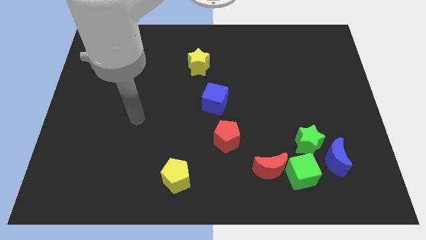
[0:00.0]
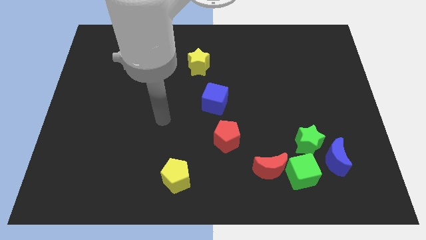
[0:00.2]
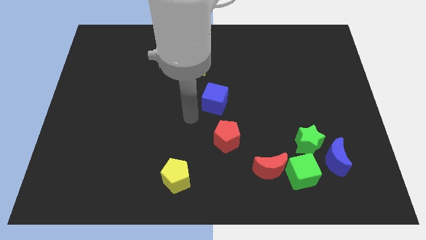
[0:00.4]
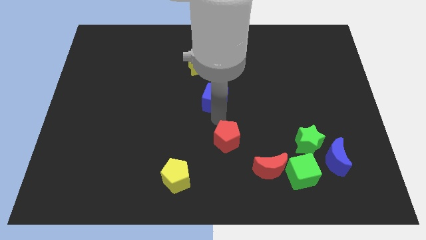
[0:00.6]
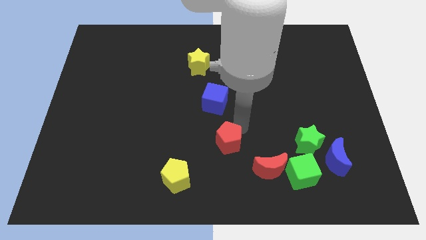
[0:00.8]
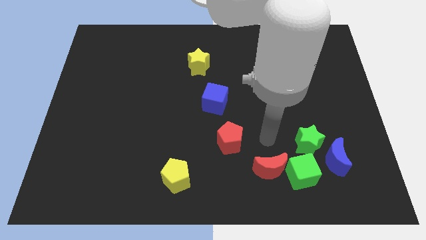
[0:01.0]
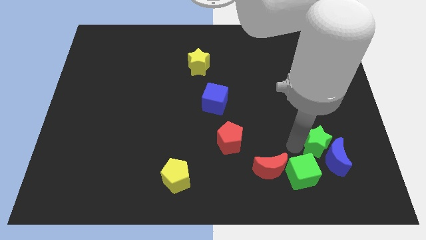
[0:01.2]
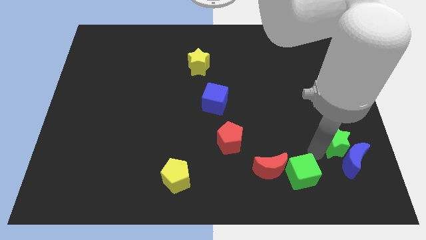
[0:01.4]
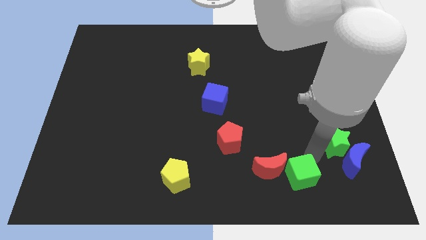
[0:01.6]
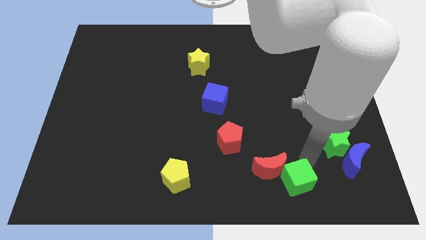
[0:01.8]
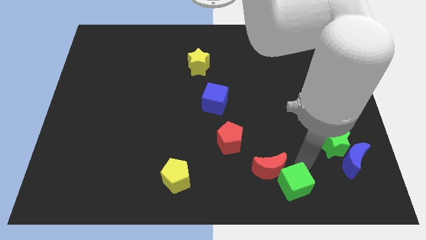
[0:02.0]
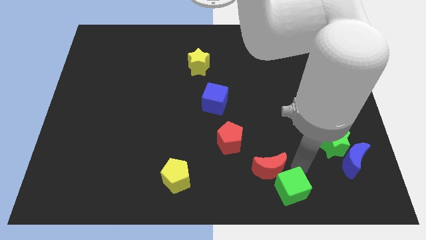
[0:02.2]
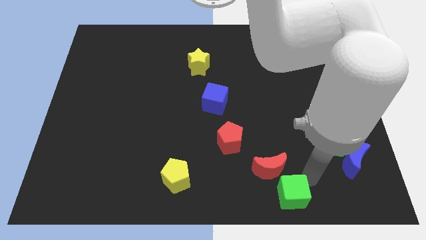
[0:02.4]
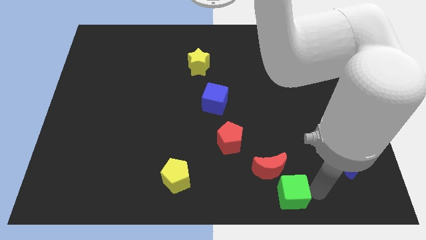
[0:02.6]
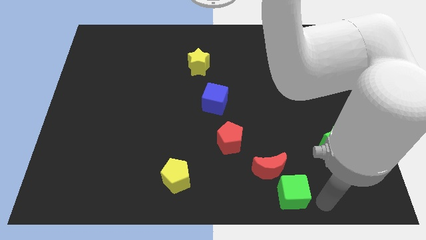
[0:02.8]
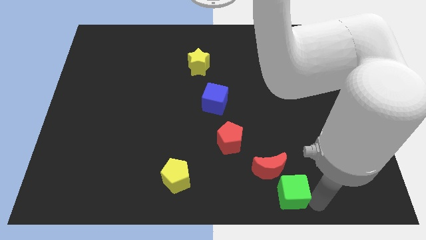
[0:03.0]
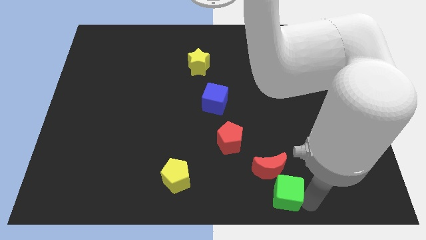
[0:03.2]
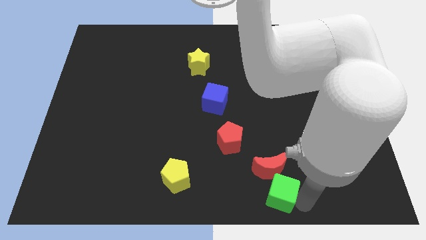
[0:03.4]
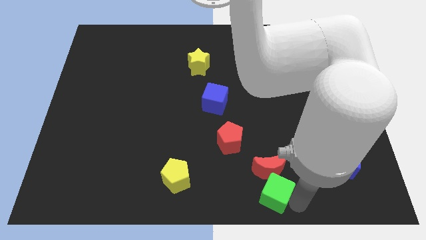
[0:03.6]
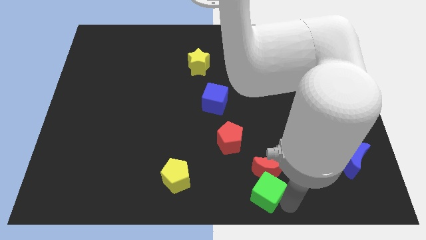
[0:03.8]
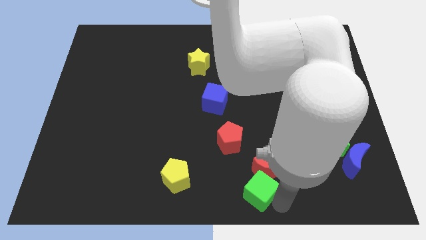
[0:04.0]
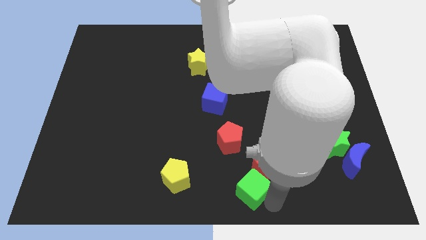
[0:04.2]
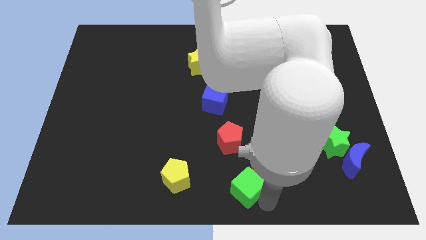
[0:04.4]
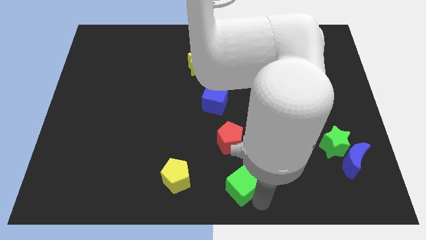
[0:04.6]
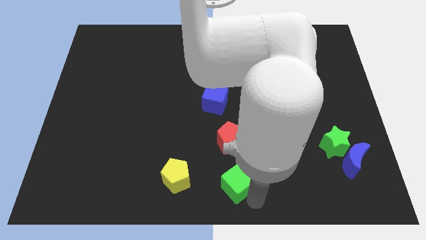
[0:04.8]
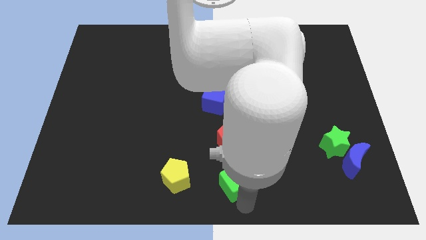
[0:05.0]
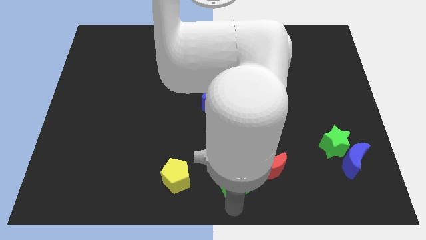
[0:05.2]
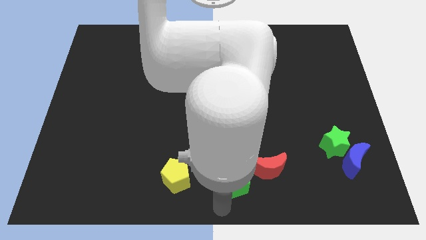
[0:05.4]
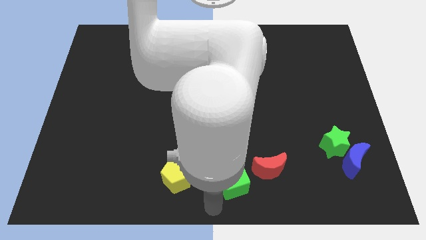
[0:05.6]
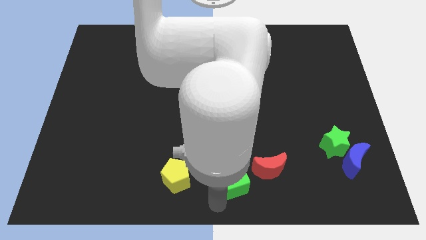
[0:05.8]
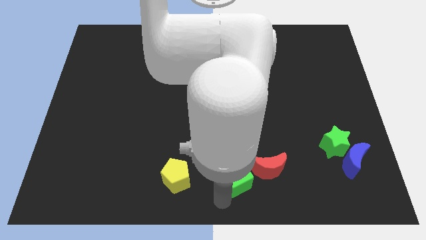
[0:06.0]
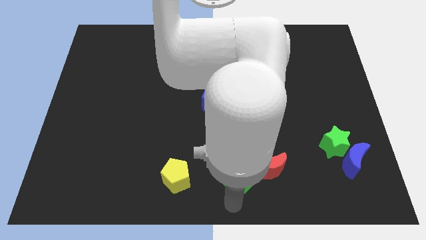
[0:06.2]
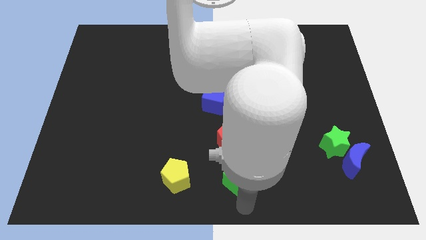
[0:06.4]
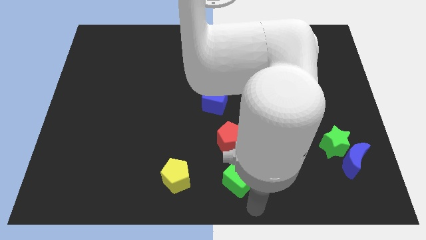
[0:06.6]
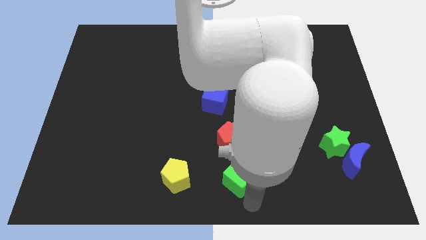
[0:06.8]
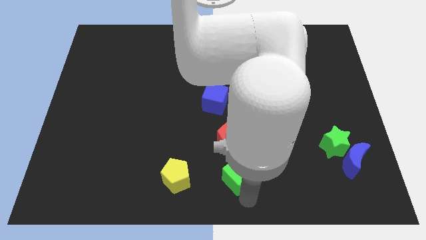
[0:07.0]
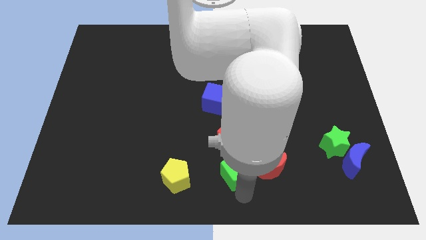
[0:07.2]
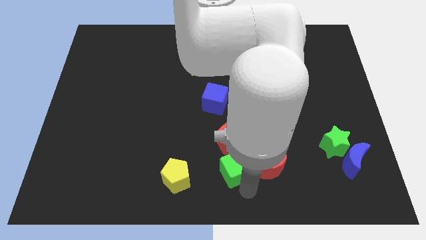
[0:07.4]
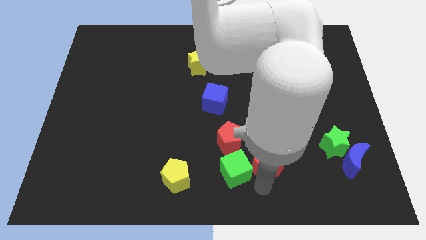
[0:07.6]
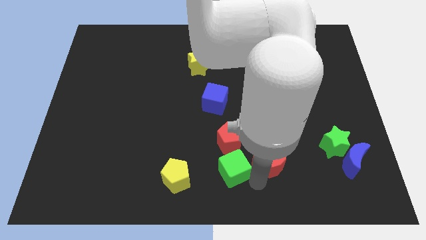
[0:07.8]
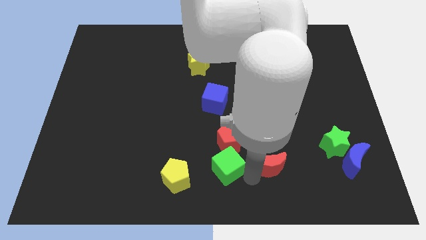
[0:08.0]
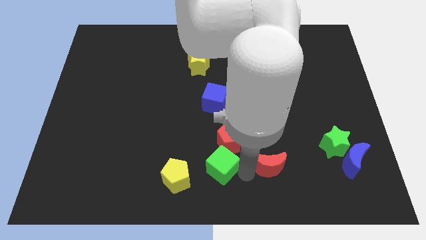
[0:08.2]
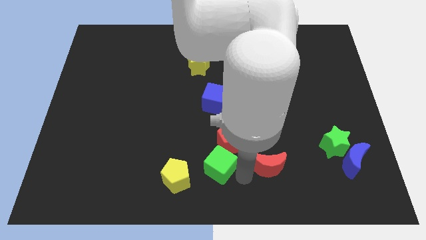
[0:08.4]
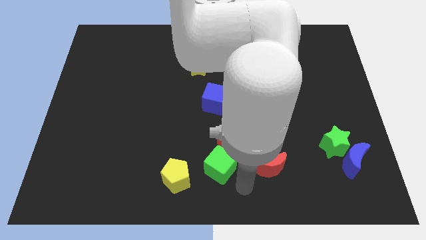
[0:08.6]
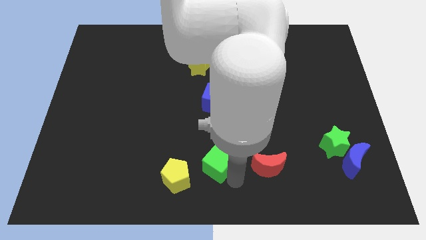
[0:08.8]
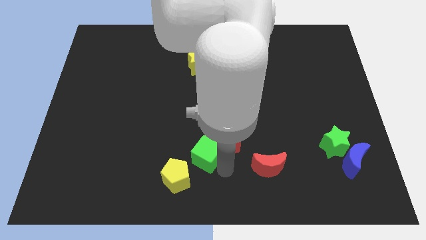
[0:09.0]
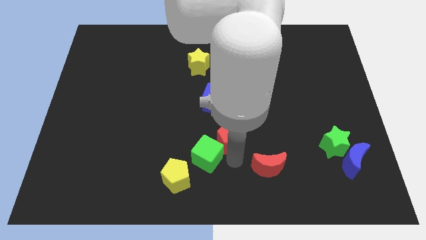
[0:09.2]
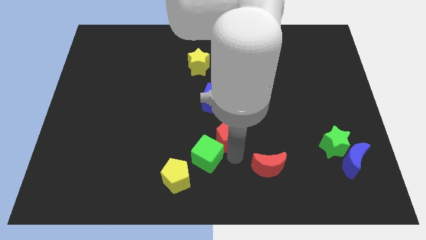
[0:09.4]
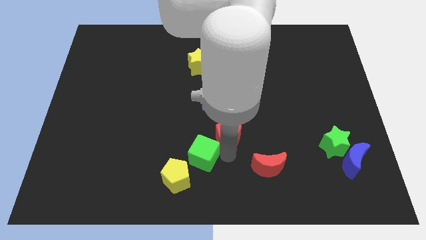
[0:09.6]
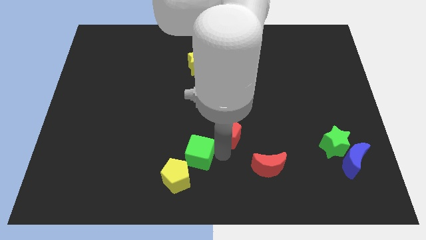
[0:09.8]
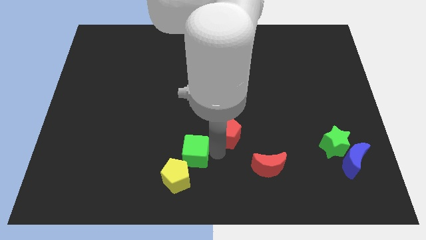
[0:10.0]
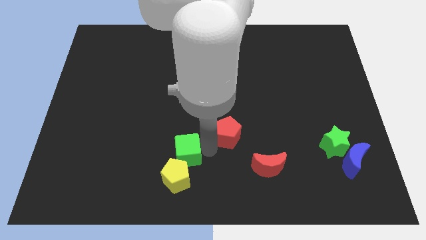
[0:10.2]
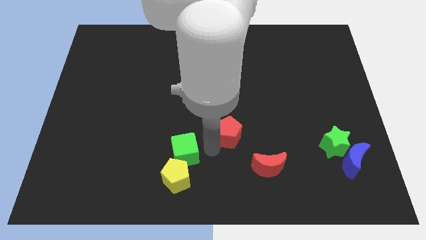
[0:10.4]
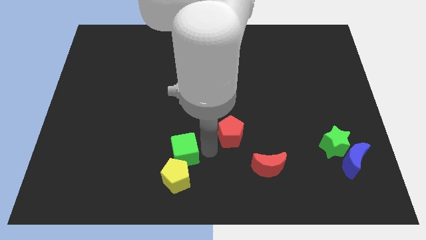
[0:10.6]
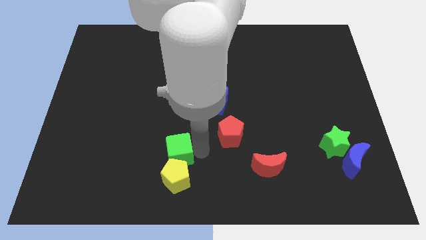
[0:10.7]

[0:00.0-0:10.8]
push the green cube to the top left of the yellow pentagon
